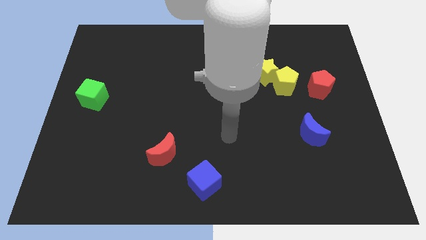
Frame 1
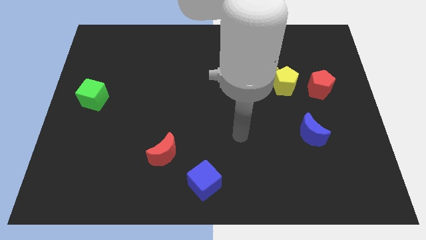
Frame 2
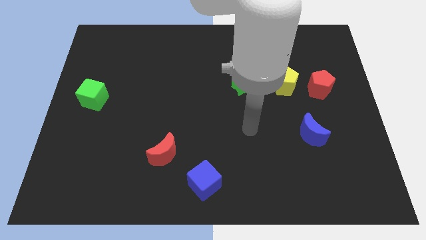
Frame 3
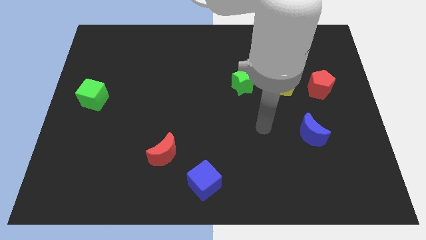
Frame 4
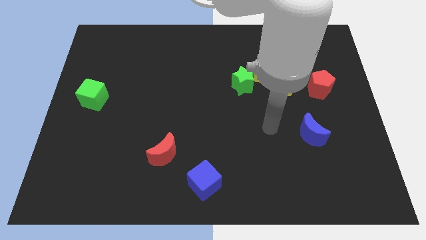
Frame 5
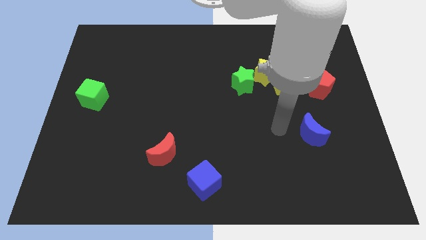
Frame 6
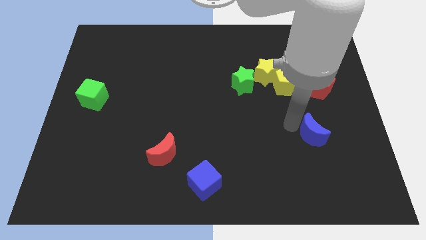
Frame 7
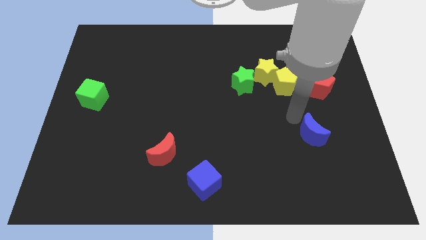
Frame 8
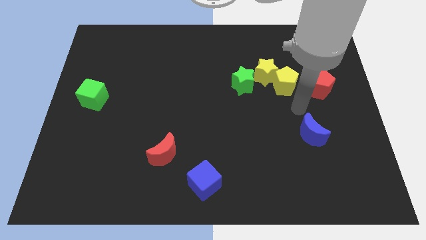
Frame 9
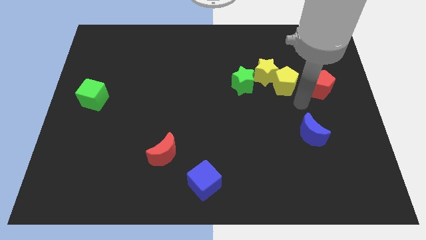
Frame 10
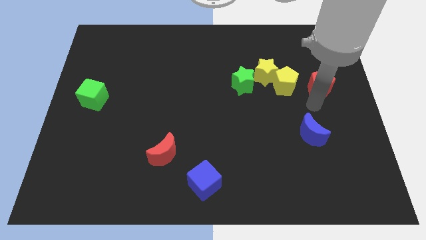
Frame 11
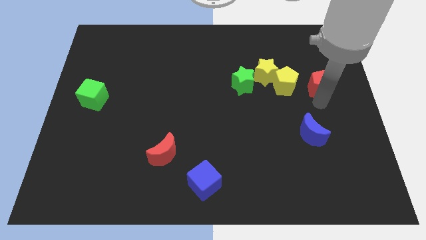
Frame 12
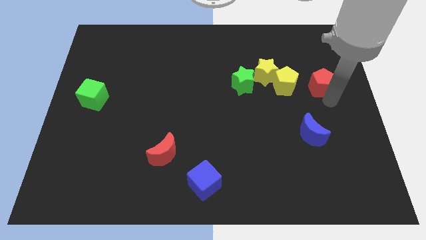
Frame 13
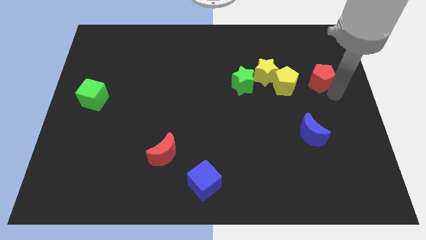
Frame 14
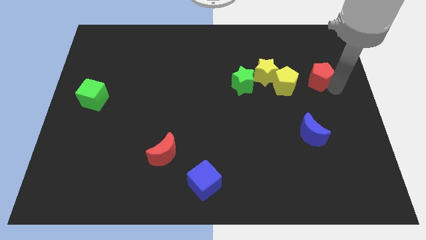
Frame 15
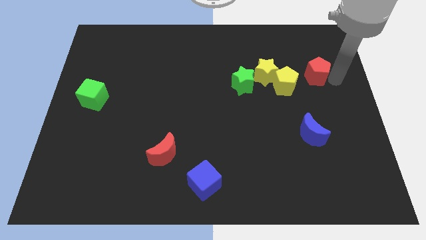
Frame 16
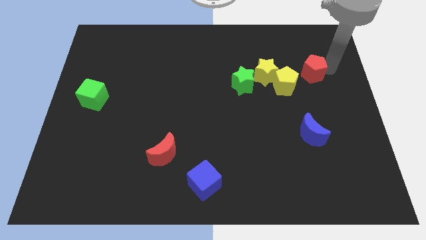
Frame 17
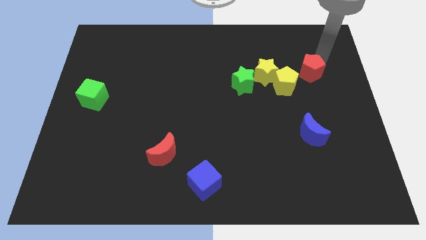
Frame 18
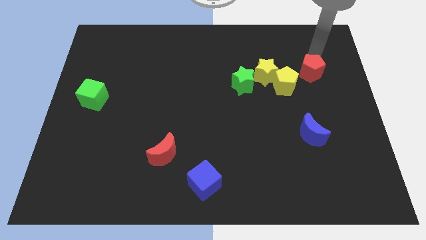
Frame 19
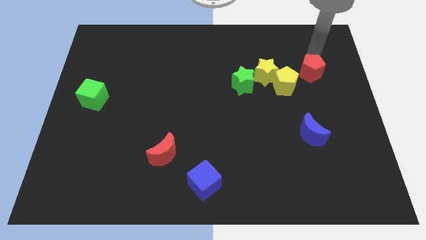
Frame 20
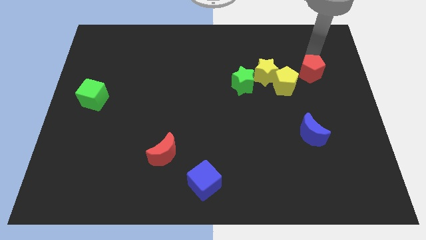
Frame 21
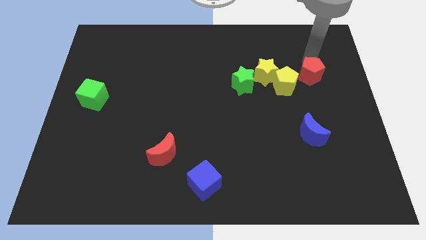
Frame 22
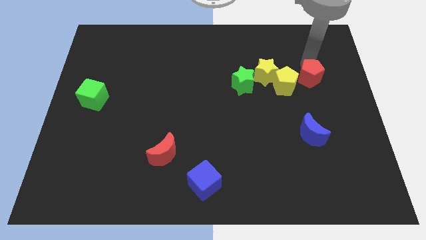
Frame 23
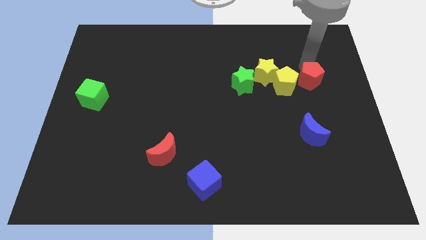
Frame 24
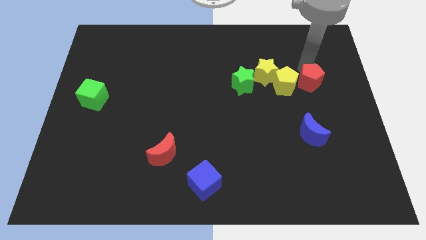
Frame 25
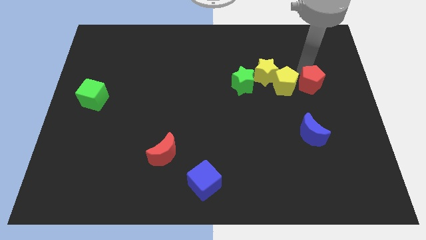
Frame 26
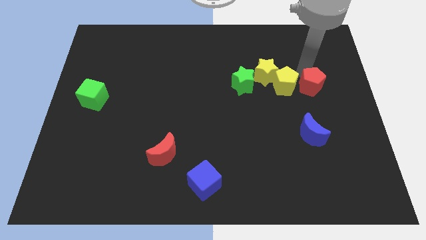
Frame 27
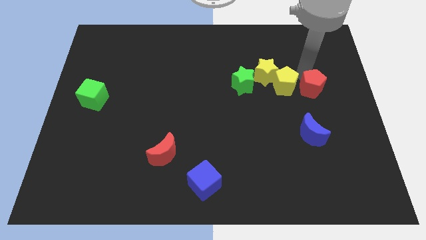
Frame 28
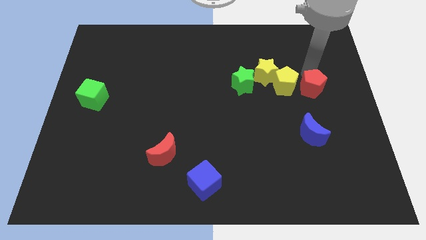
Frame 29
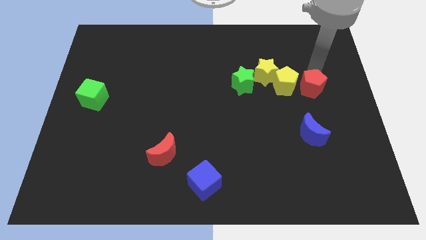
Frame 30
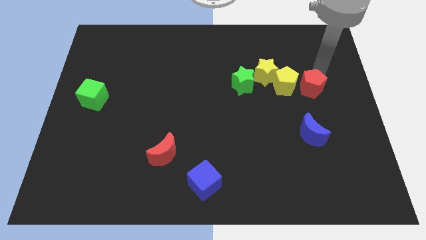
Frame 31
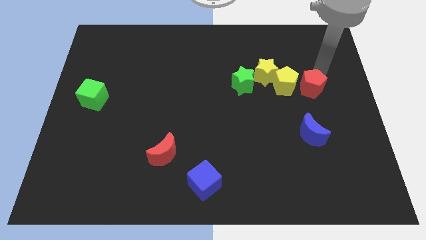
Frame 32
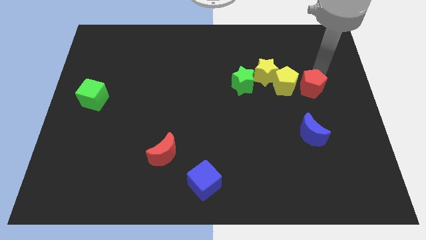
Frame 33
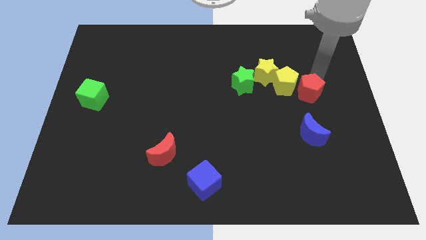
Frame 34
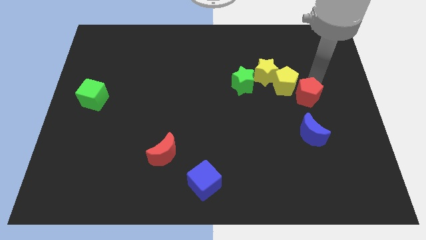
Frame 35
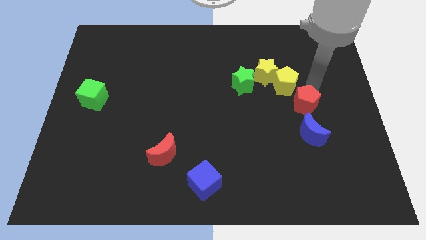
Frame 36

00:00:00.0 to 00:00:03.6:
slide the red pentagon down and to the left slightly

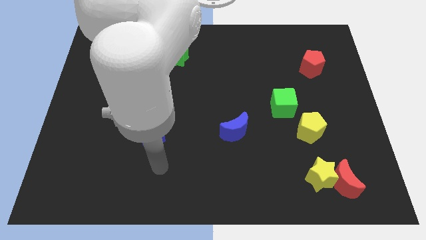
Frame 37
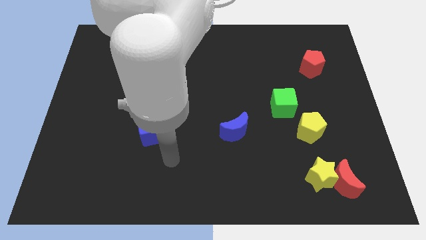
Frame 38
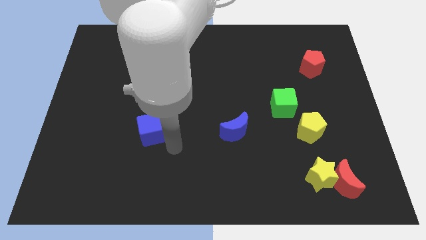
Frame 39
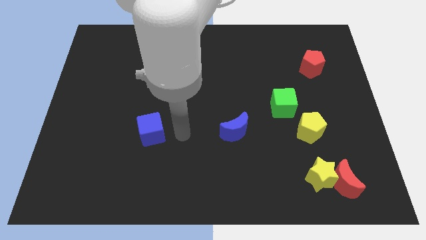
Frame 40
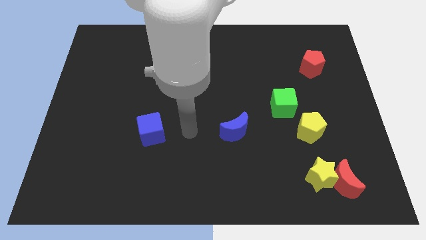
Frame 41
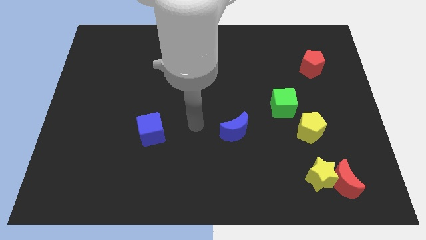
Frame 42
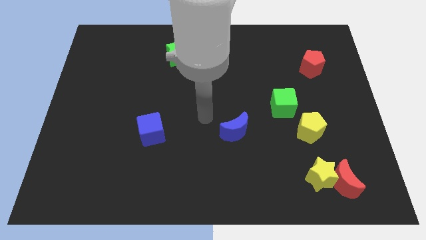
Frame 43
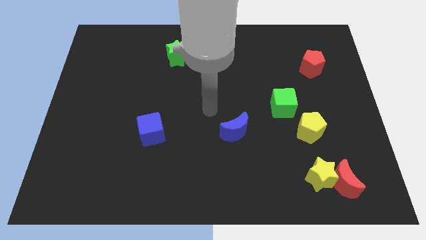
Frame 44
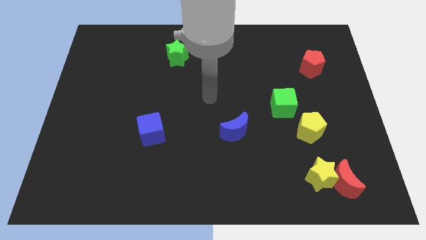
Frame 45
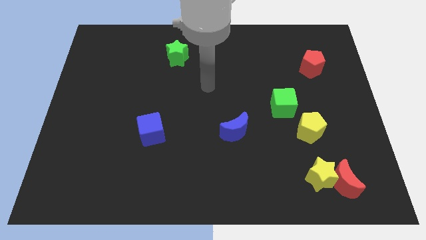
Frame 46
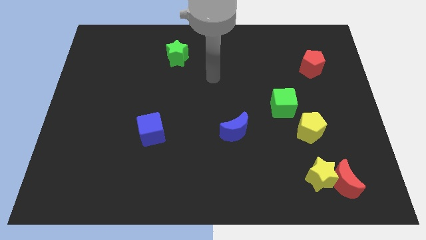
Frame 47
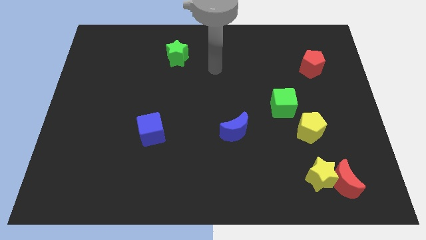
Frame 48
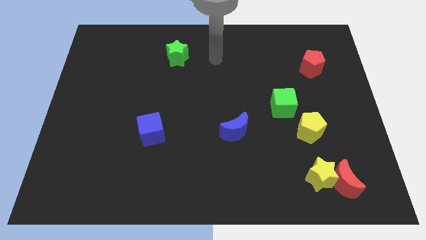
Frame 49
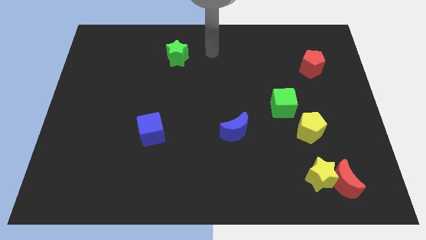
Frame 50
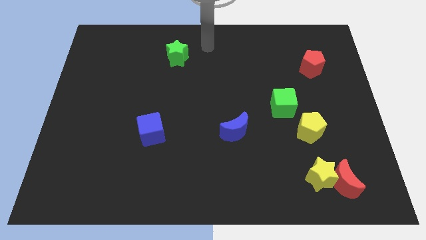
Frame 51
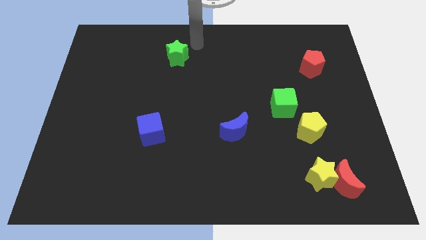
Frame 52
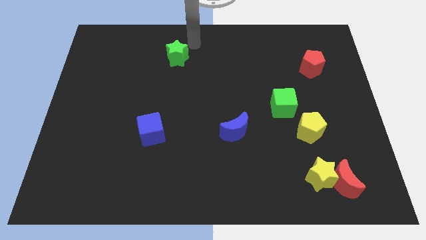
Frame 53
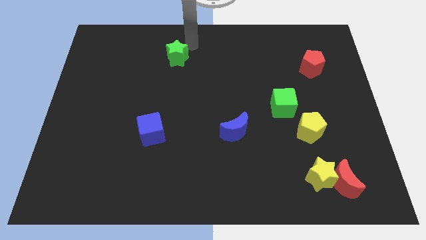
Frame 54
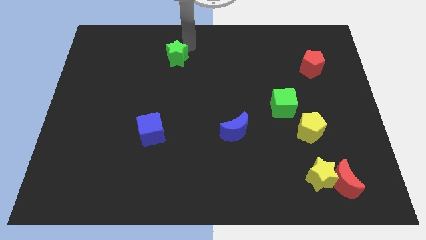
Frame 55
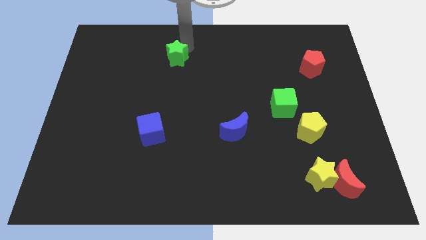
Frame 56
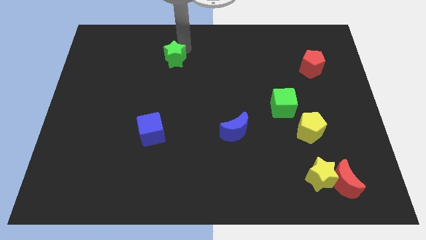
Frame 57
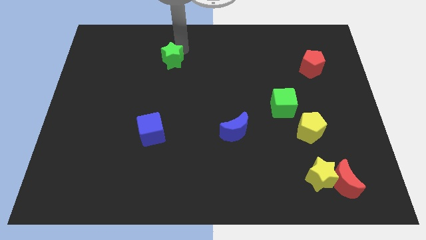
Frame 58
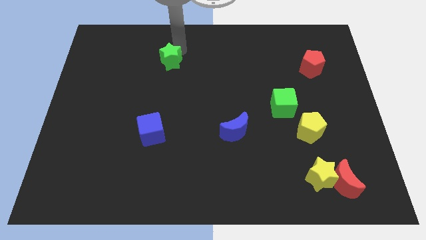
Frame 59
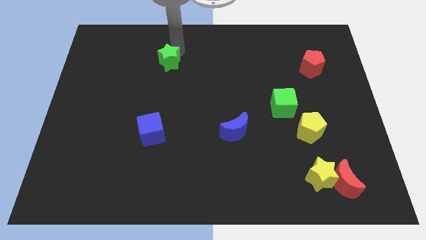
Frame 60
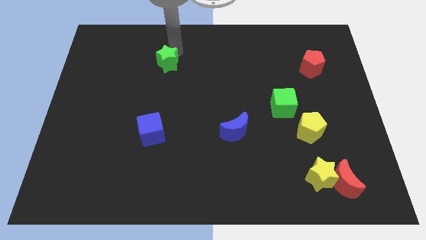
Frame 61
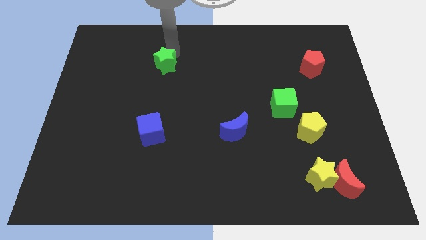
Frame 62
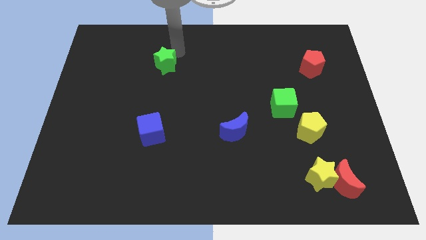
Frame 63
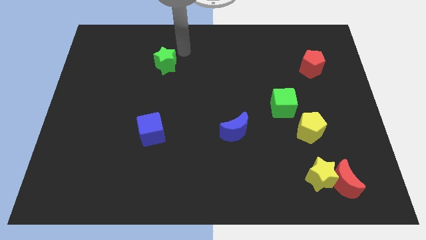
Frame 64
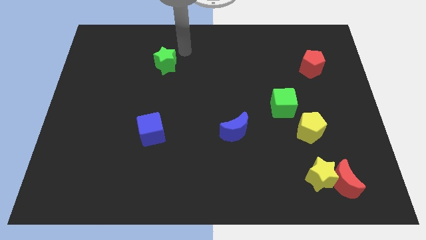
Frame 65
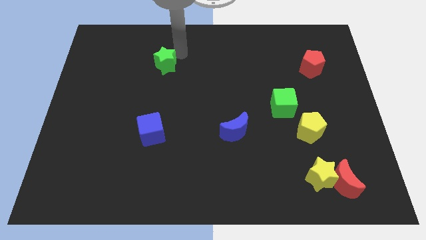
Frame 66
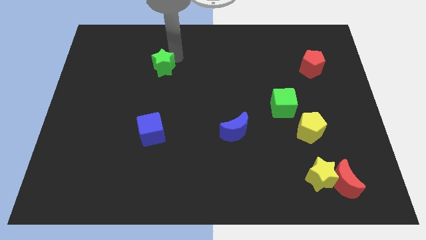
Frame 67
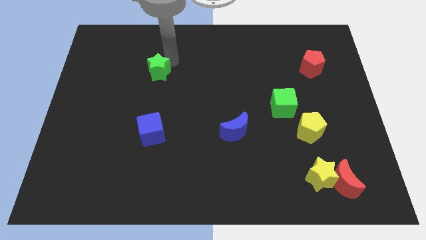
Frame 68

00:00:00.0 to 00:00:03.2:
slightly push the green star downwards and left

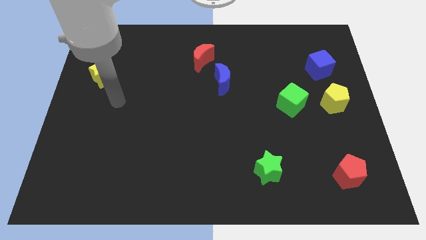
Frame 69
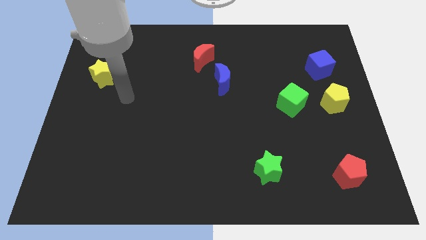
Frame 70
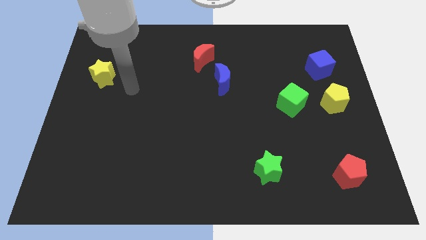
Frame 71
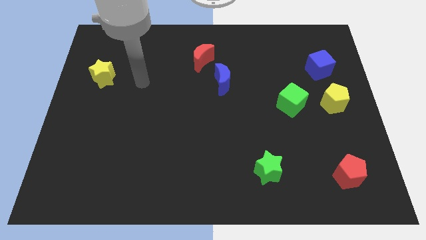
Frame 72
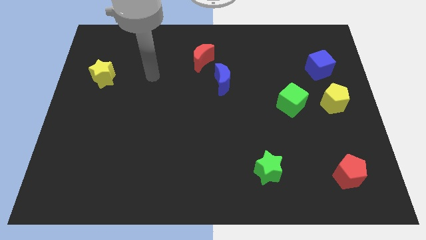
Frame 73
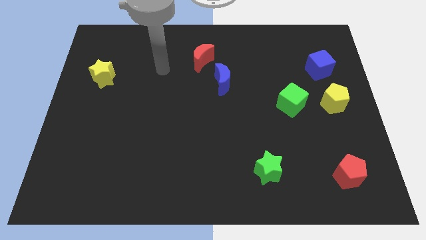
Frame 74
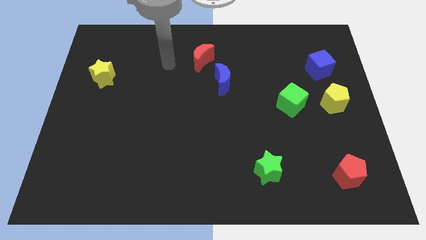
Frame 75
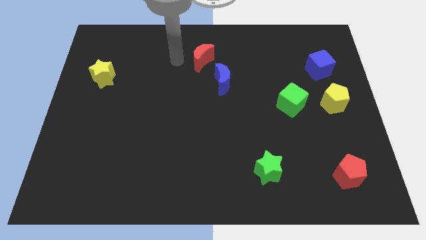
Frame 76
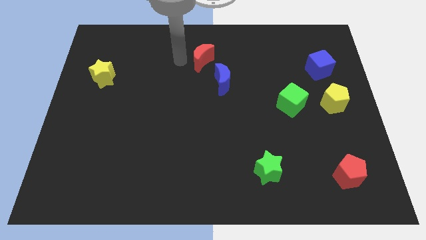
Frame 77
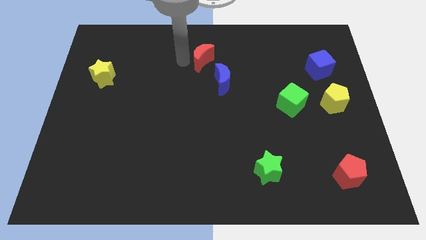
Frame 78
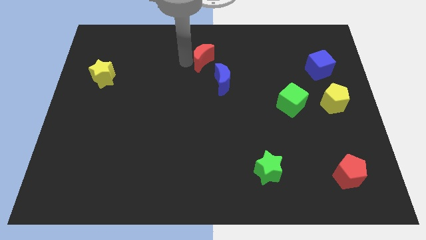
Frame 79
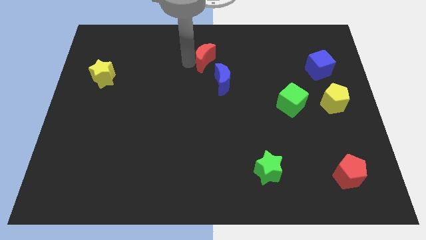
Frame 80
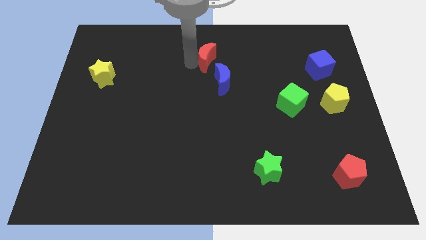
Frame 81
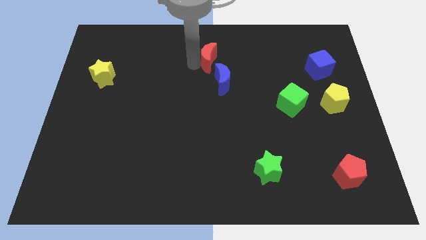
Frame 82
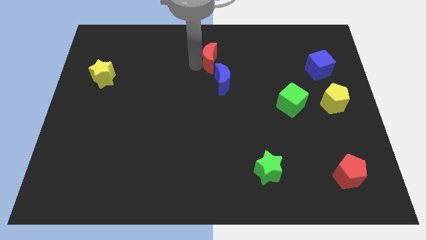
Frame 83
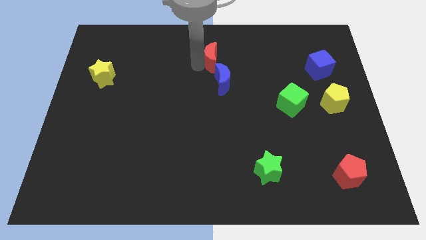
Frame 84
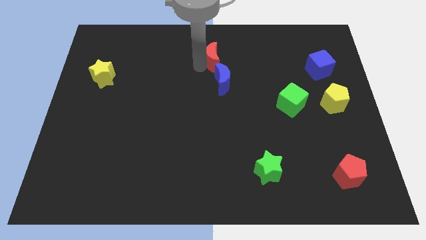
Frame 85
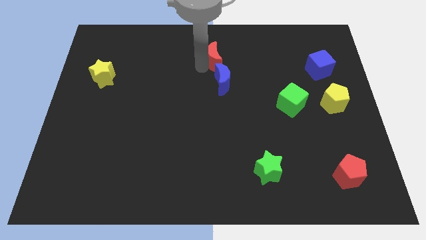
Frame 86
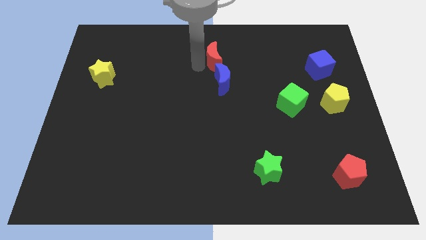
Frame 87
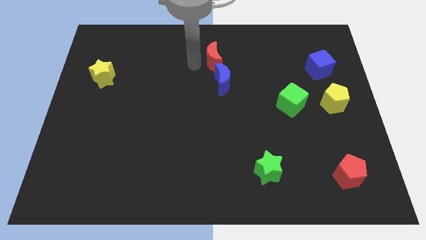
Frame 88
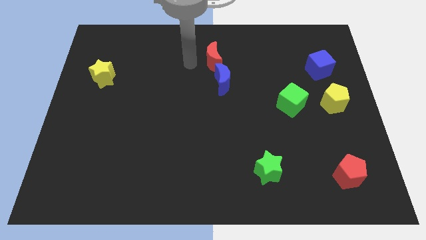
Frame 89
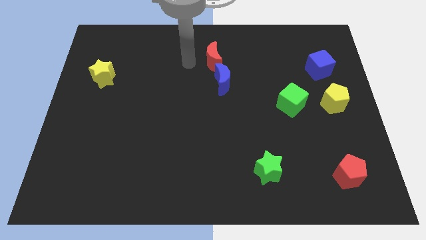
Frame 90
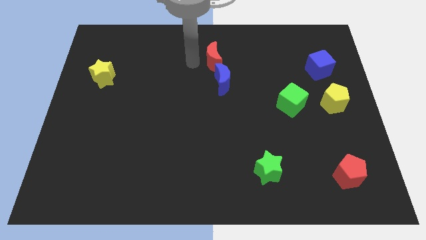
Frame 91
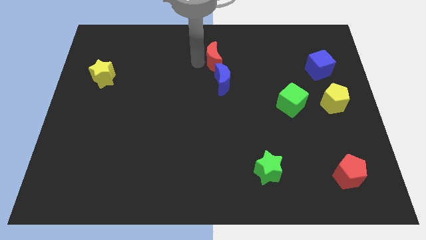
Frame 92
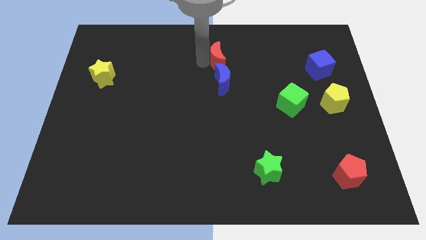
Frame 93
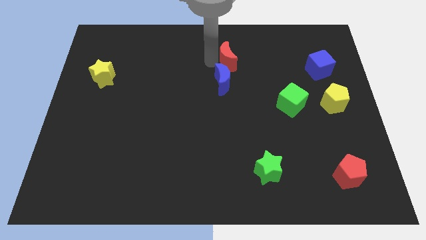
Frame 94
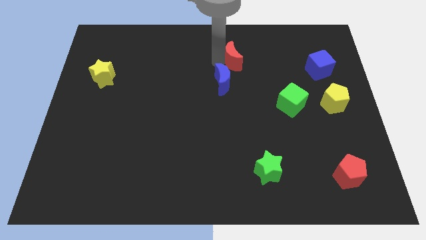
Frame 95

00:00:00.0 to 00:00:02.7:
slide the red moon right somewhat
